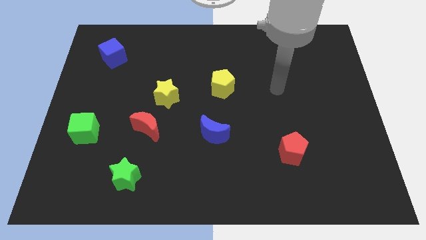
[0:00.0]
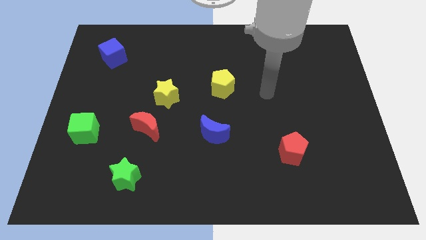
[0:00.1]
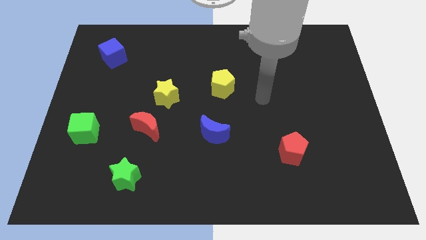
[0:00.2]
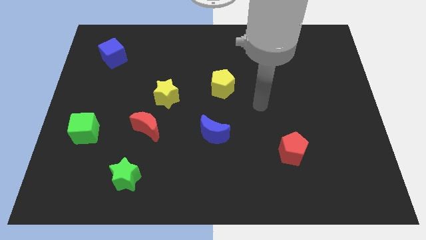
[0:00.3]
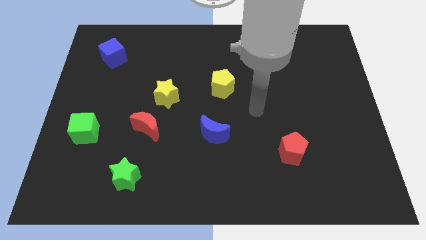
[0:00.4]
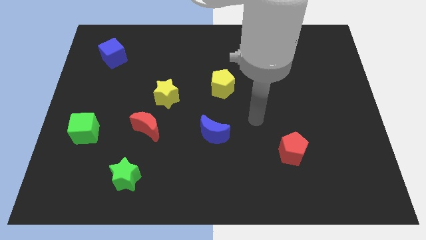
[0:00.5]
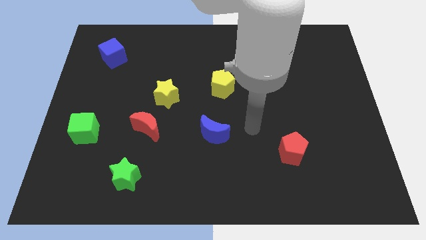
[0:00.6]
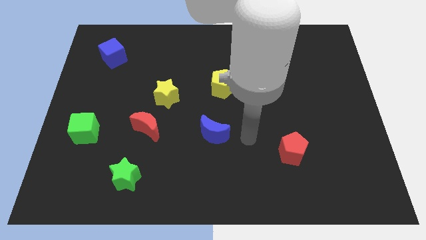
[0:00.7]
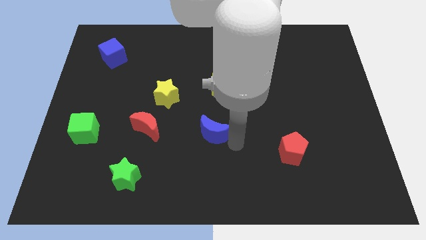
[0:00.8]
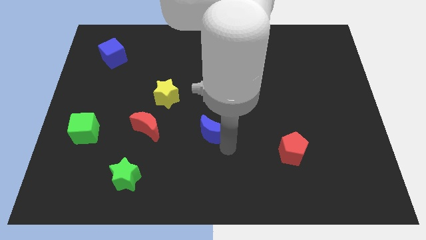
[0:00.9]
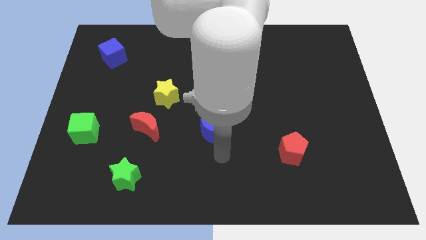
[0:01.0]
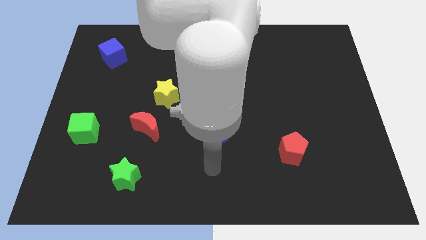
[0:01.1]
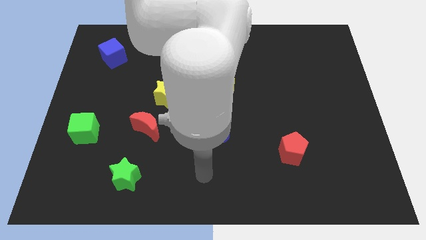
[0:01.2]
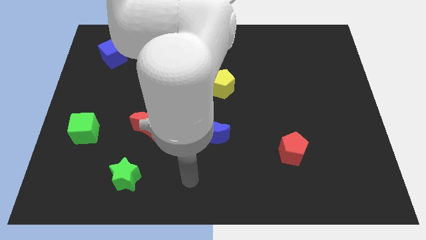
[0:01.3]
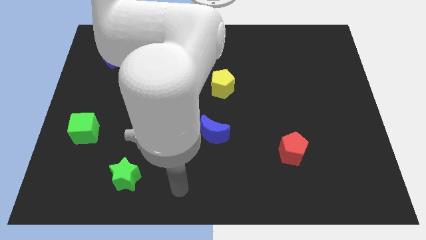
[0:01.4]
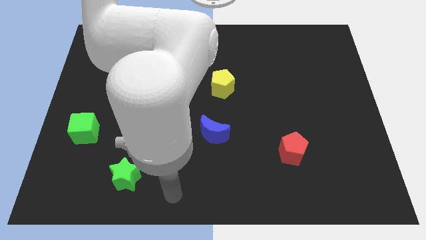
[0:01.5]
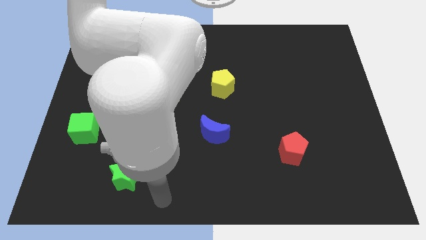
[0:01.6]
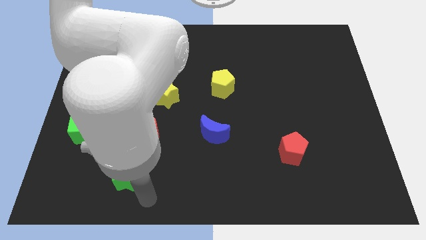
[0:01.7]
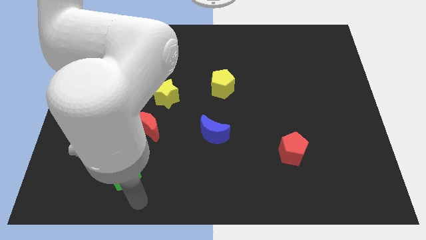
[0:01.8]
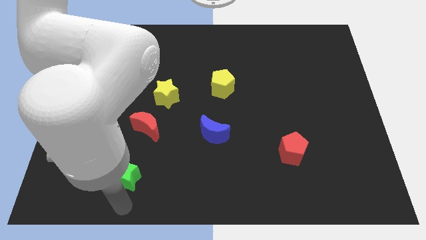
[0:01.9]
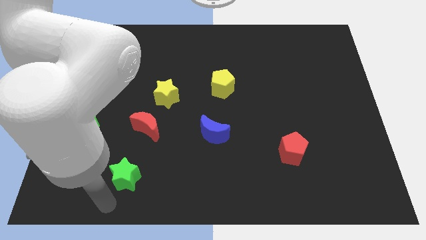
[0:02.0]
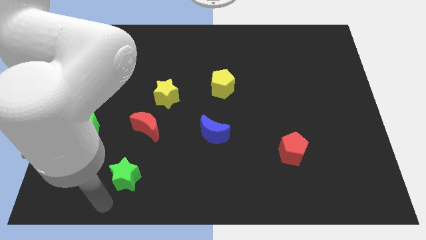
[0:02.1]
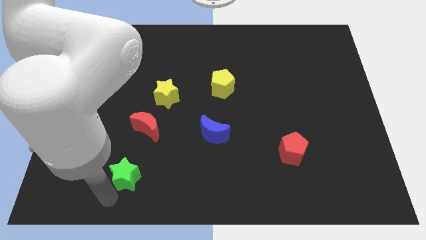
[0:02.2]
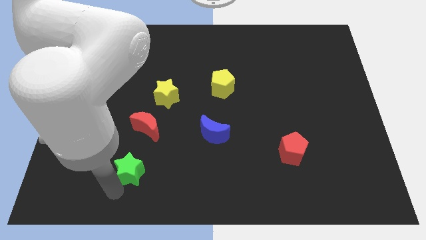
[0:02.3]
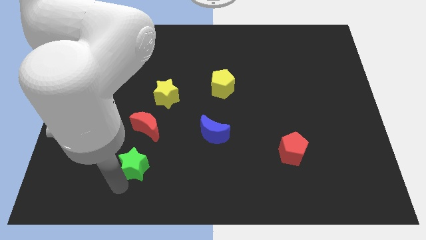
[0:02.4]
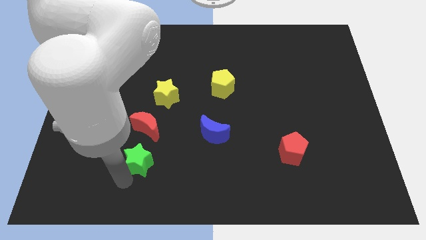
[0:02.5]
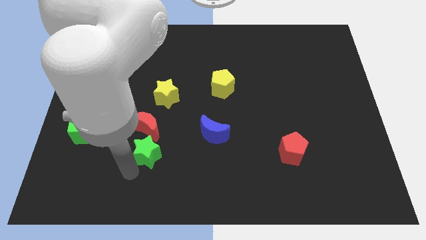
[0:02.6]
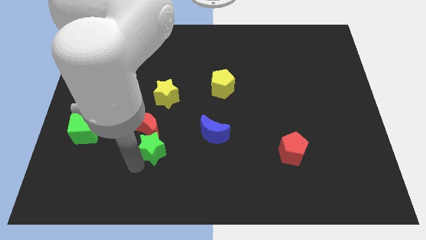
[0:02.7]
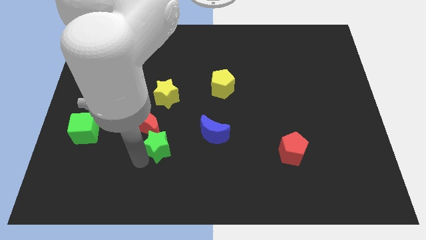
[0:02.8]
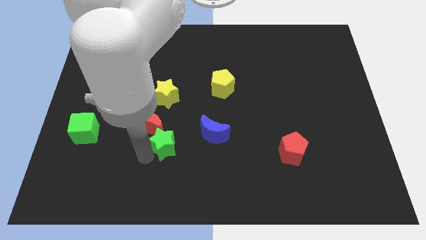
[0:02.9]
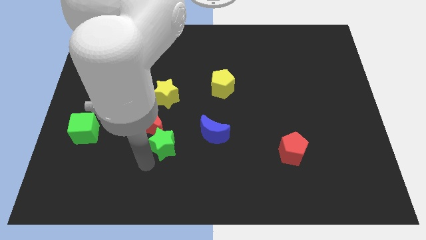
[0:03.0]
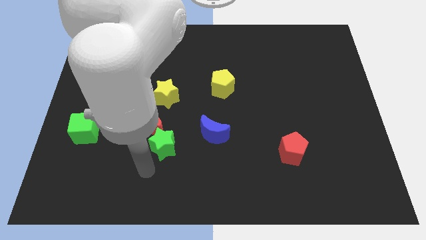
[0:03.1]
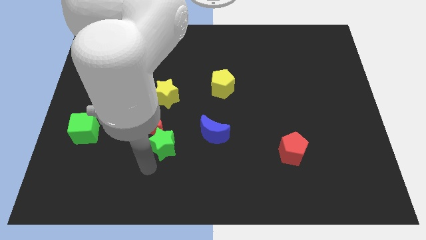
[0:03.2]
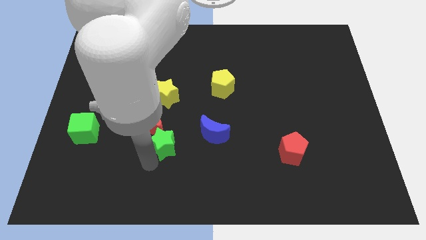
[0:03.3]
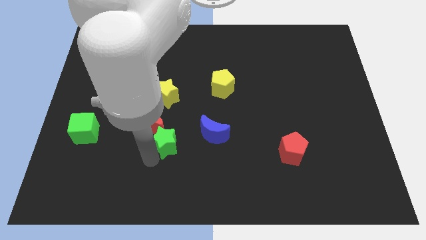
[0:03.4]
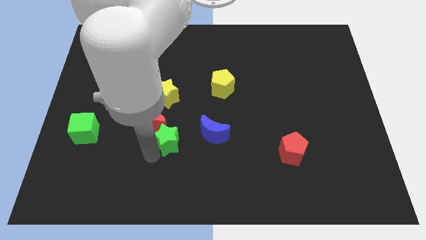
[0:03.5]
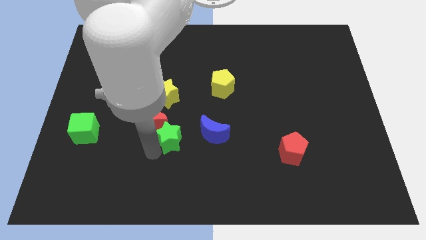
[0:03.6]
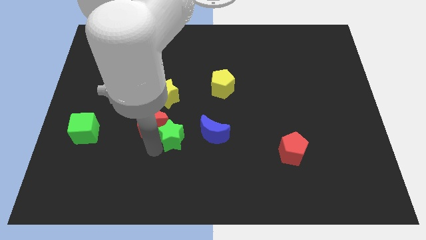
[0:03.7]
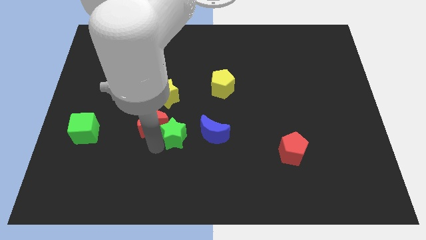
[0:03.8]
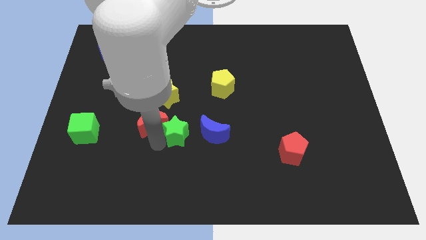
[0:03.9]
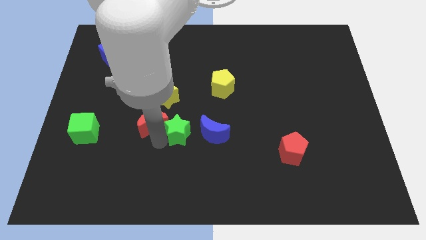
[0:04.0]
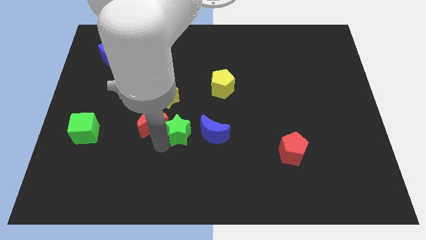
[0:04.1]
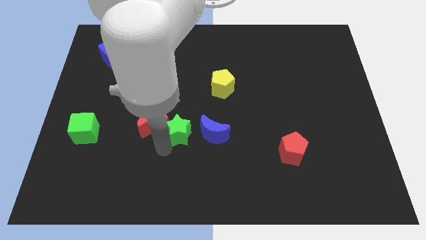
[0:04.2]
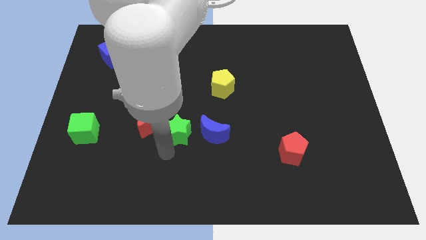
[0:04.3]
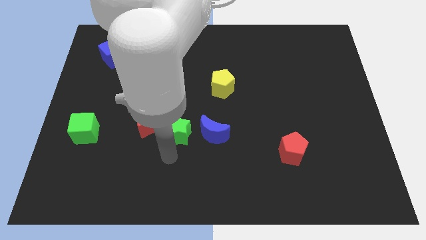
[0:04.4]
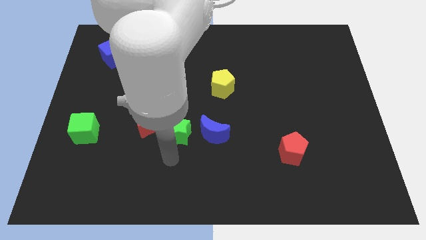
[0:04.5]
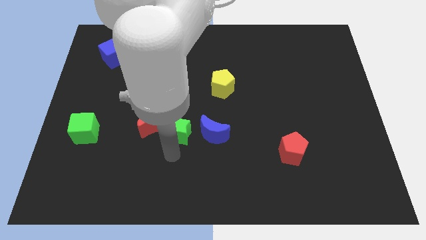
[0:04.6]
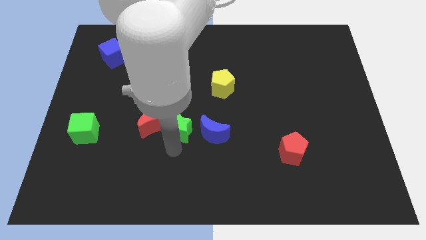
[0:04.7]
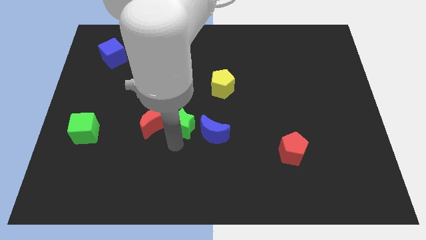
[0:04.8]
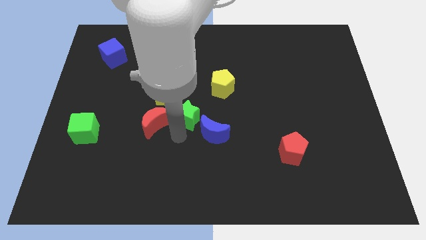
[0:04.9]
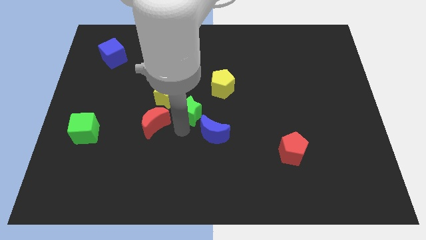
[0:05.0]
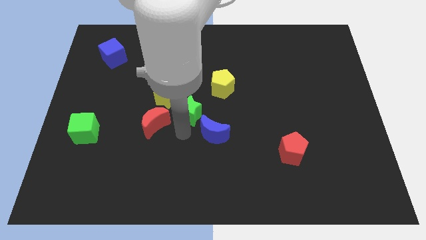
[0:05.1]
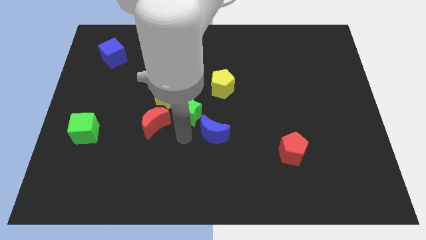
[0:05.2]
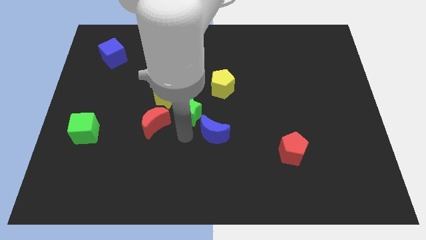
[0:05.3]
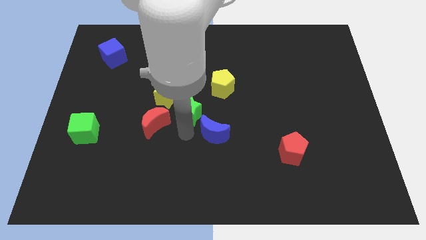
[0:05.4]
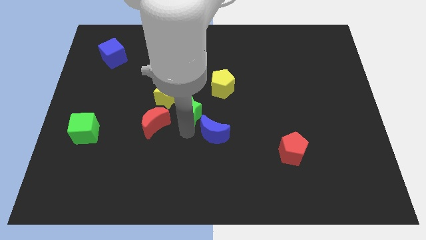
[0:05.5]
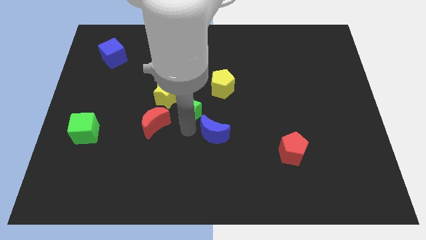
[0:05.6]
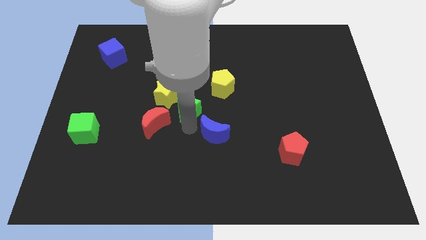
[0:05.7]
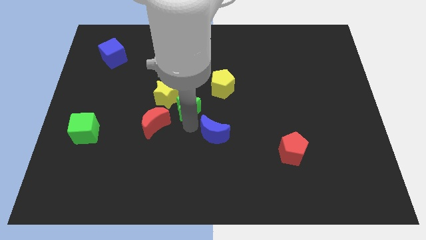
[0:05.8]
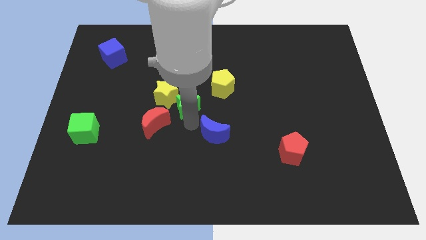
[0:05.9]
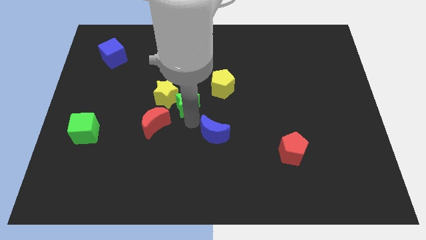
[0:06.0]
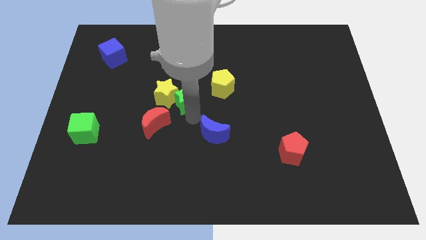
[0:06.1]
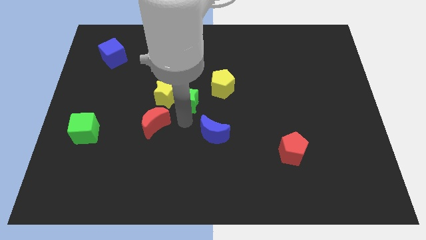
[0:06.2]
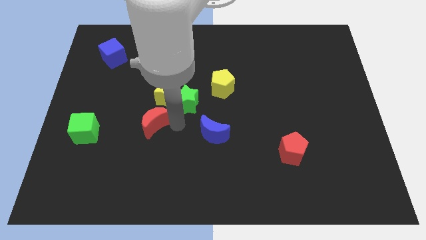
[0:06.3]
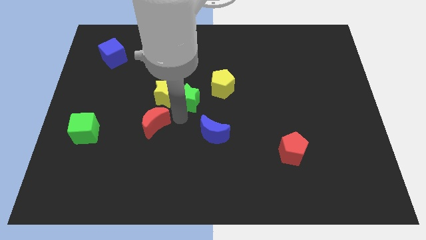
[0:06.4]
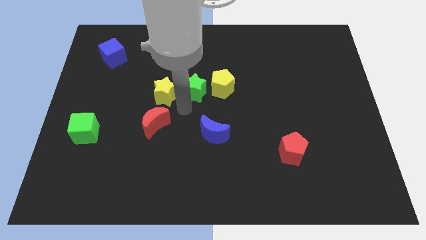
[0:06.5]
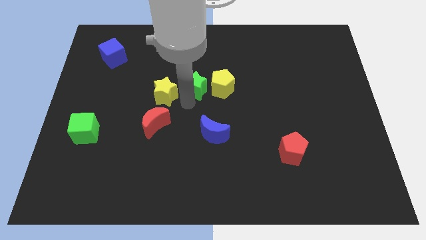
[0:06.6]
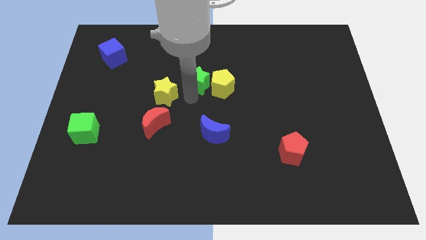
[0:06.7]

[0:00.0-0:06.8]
move the green star to the top left side of the yellow pentagon

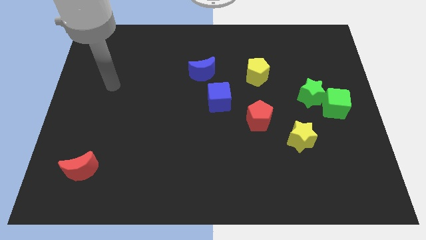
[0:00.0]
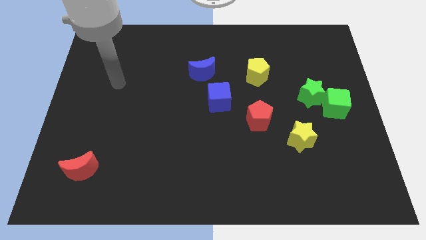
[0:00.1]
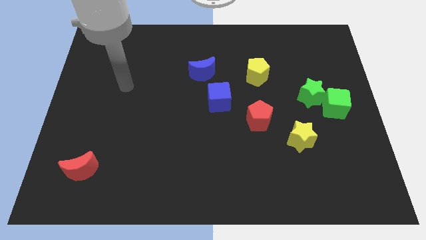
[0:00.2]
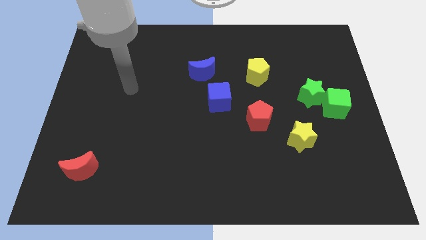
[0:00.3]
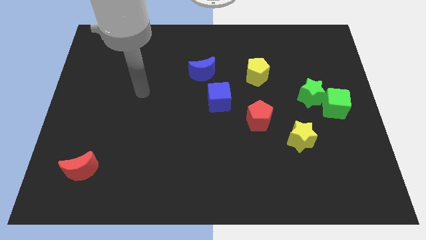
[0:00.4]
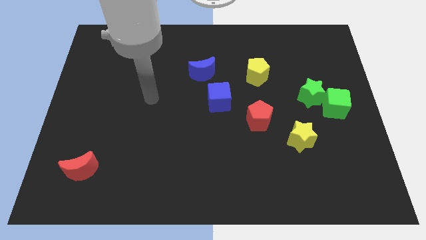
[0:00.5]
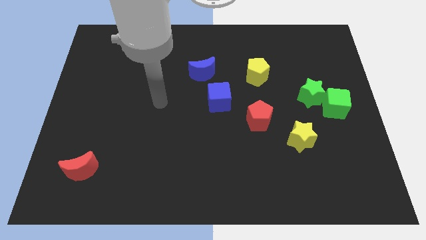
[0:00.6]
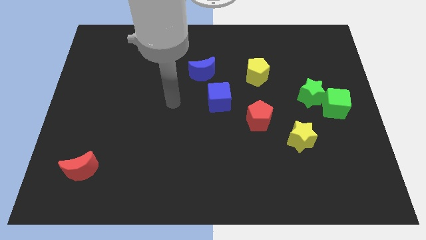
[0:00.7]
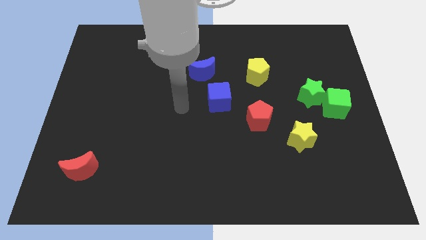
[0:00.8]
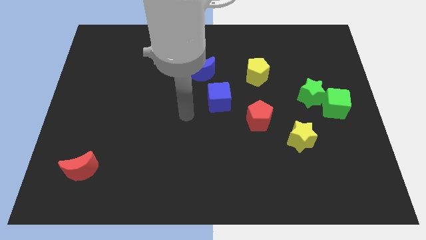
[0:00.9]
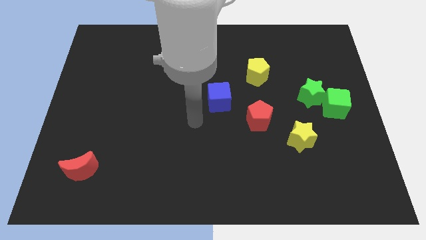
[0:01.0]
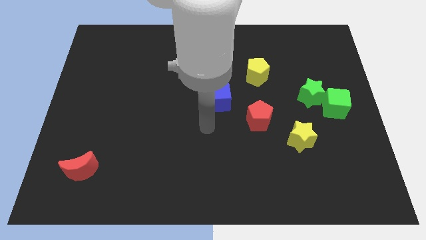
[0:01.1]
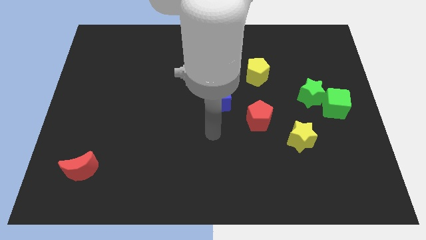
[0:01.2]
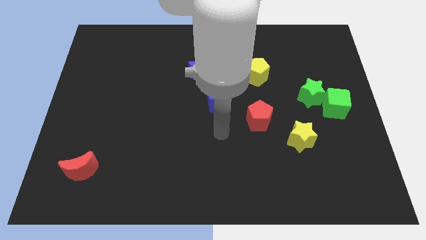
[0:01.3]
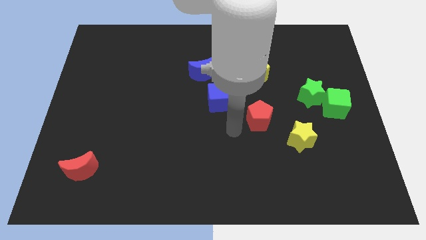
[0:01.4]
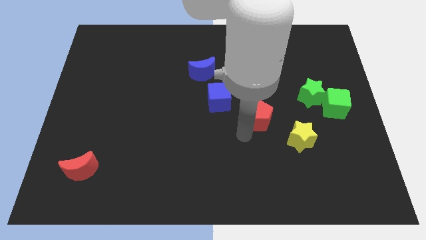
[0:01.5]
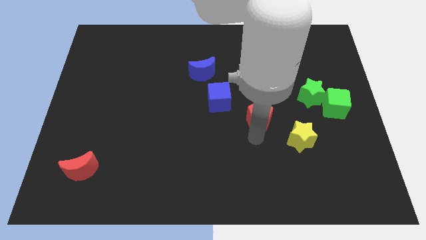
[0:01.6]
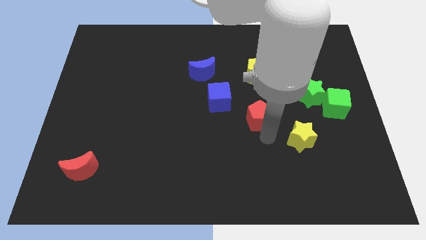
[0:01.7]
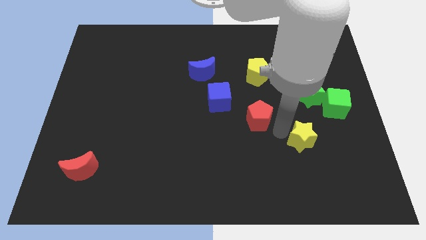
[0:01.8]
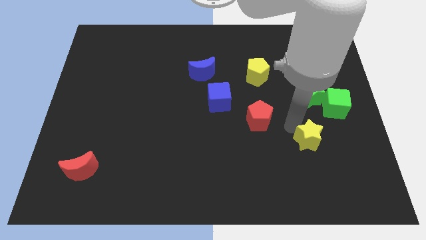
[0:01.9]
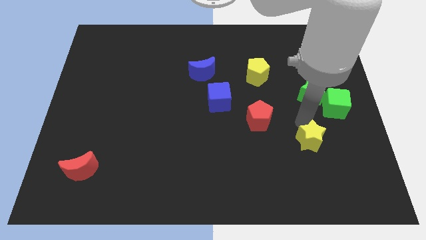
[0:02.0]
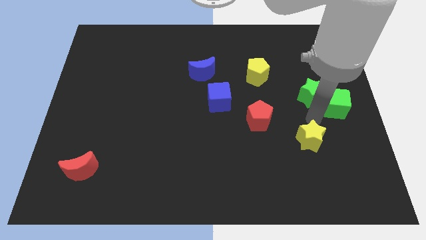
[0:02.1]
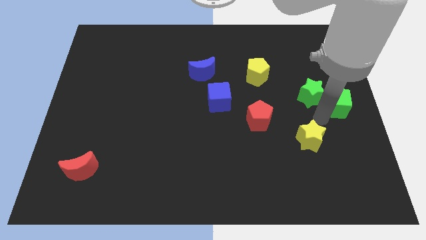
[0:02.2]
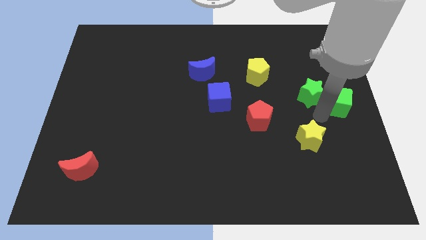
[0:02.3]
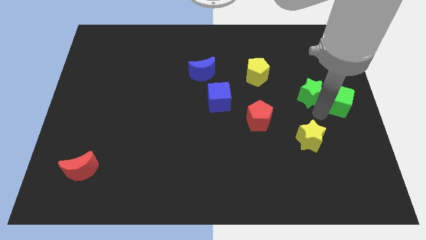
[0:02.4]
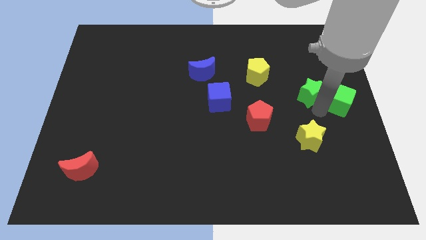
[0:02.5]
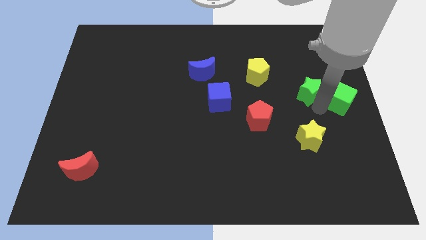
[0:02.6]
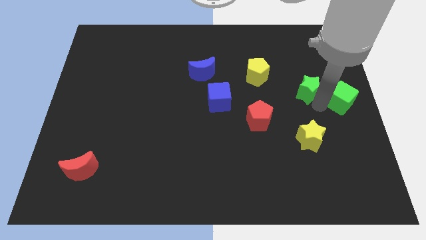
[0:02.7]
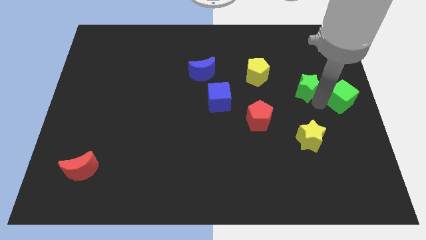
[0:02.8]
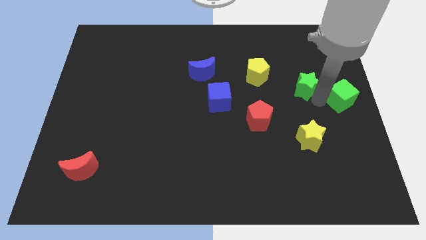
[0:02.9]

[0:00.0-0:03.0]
slide the green star just right of the yellow pentagon
